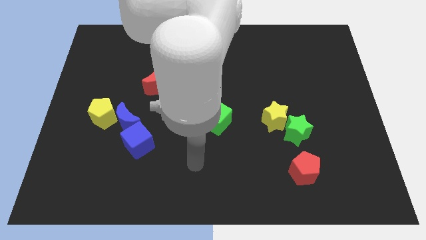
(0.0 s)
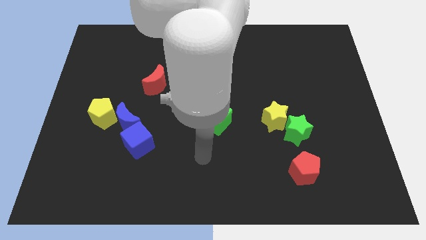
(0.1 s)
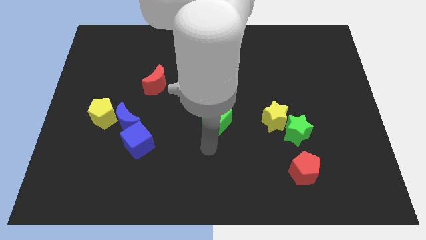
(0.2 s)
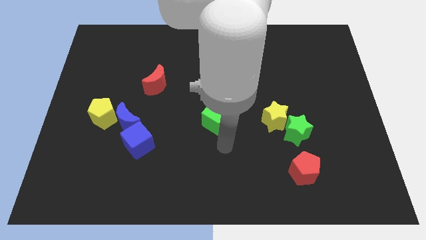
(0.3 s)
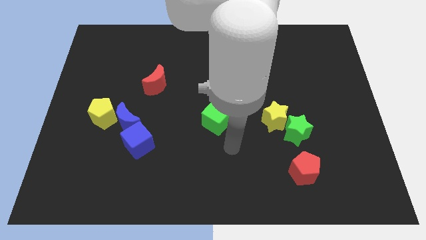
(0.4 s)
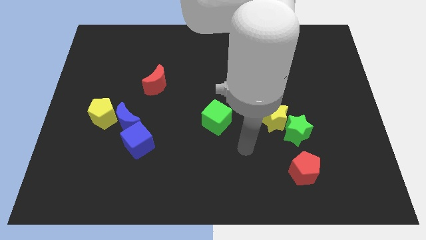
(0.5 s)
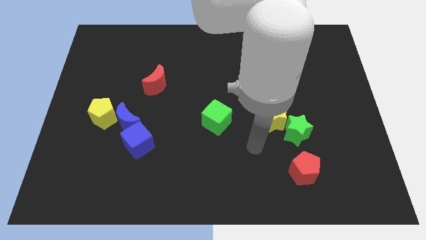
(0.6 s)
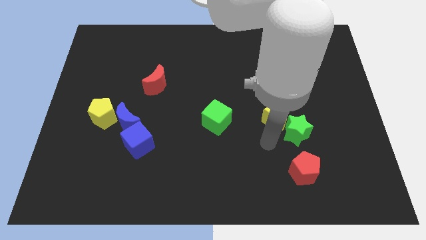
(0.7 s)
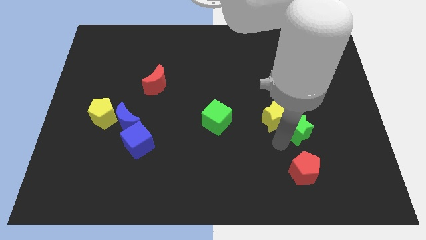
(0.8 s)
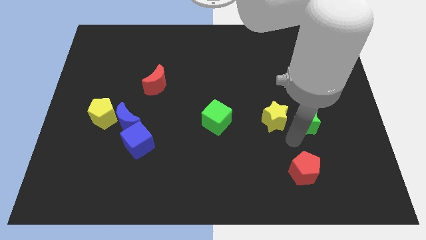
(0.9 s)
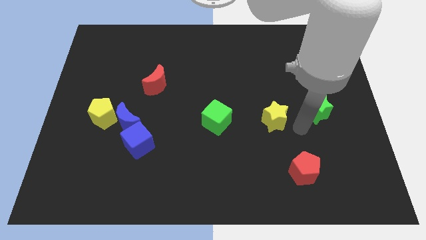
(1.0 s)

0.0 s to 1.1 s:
move the yellow star away from the green star

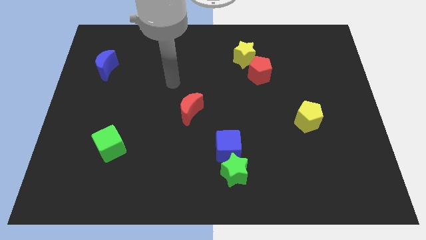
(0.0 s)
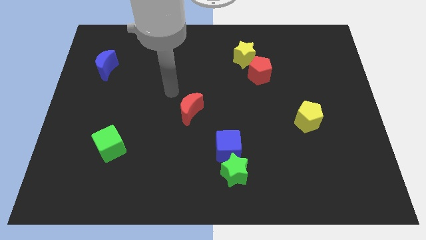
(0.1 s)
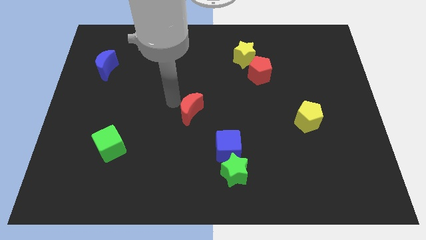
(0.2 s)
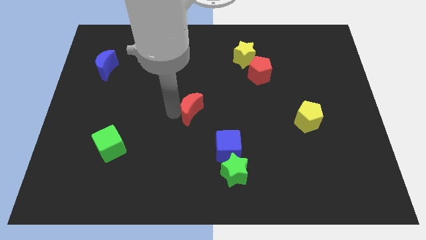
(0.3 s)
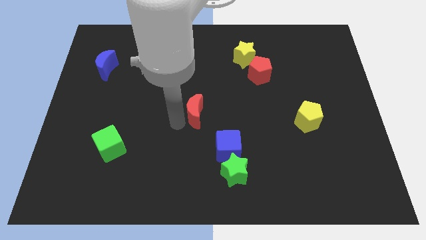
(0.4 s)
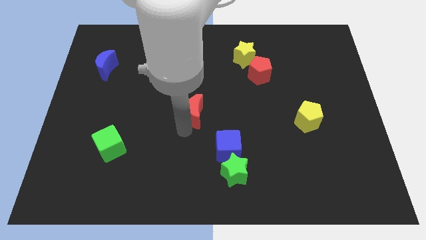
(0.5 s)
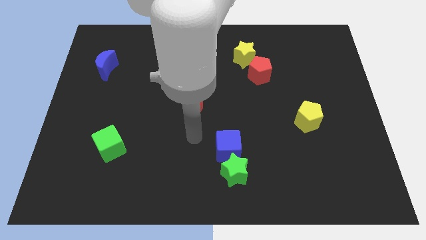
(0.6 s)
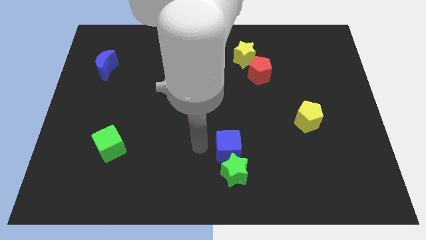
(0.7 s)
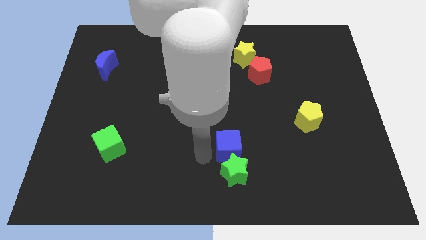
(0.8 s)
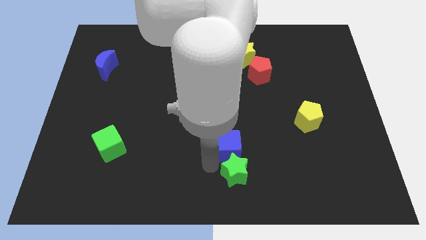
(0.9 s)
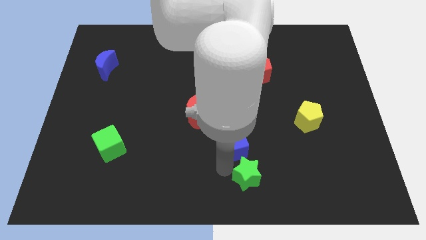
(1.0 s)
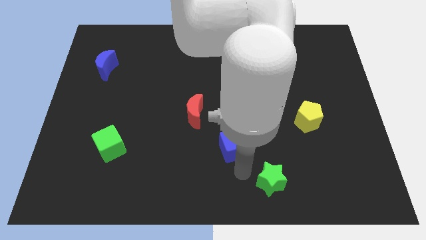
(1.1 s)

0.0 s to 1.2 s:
move the blue cube away from the green star

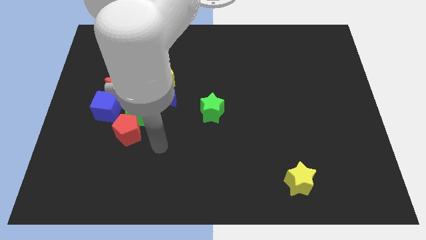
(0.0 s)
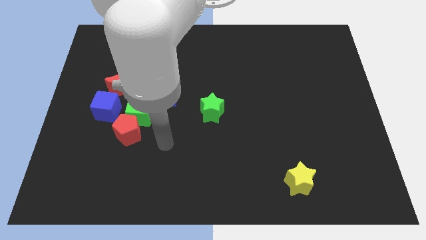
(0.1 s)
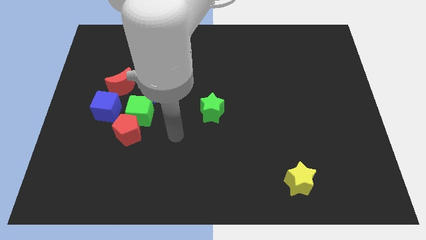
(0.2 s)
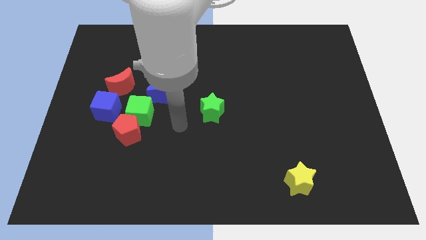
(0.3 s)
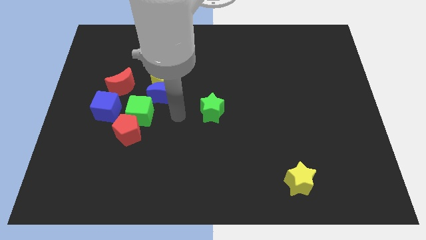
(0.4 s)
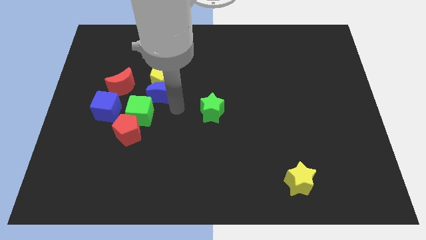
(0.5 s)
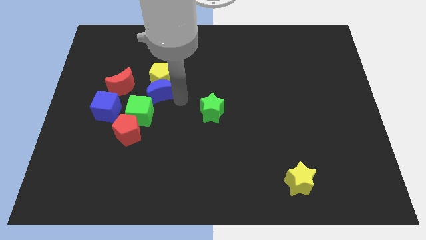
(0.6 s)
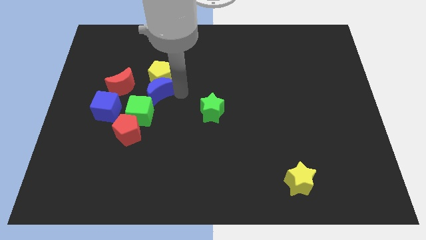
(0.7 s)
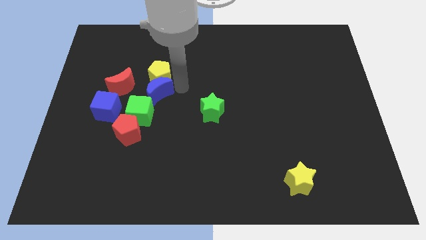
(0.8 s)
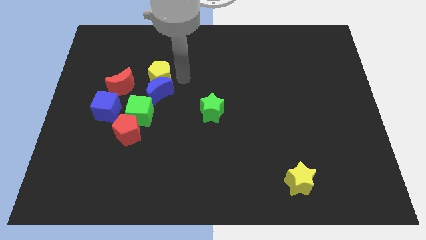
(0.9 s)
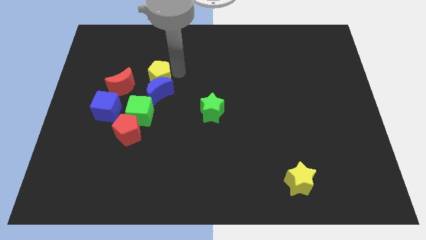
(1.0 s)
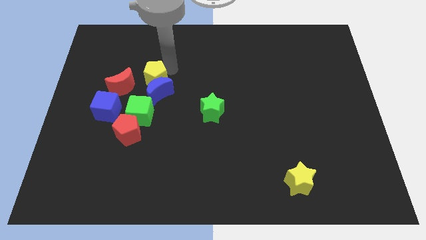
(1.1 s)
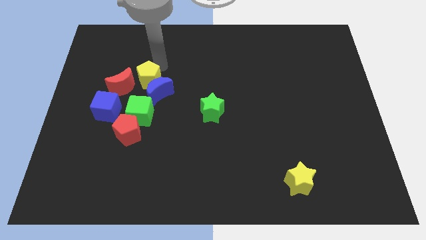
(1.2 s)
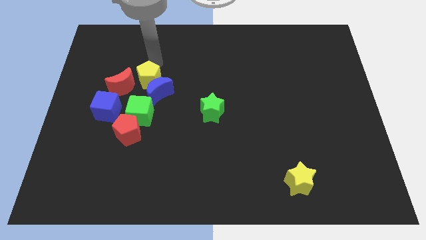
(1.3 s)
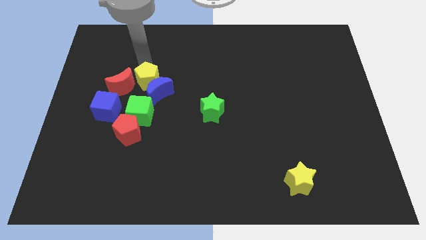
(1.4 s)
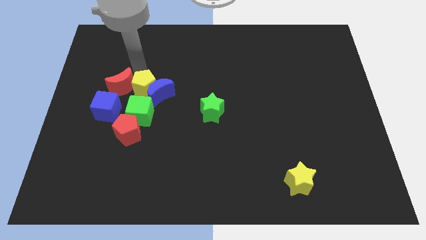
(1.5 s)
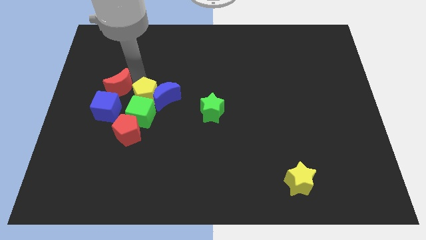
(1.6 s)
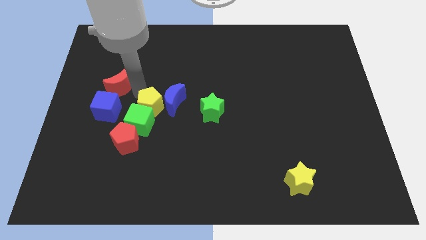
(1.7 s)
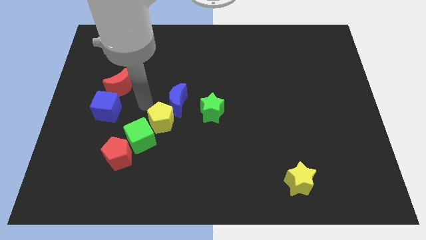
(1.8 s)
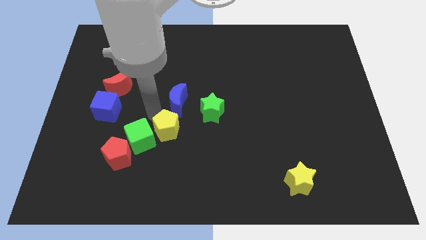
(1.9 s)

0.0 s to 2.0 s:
move the blue moon away from the yellow pentagon and green cube

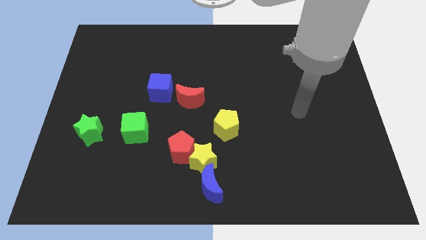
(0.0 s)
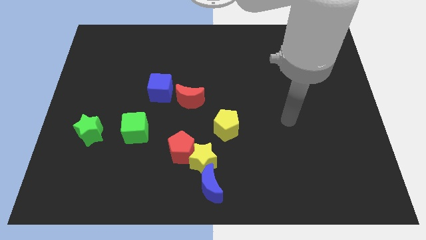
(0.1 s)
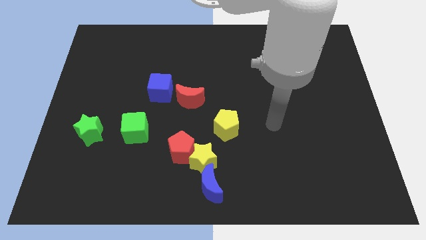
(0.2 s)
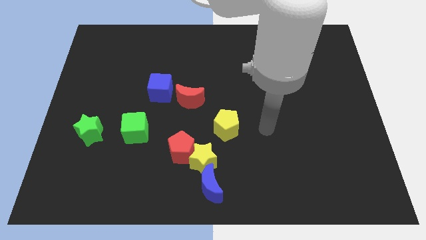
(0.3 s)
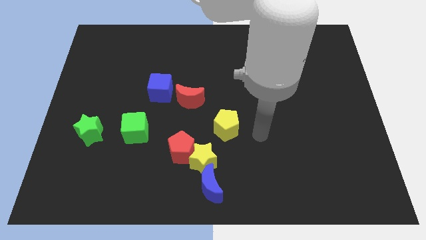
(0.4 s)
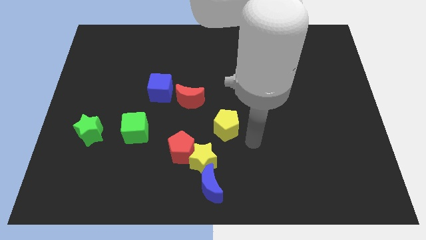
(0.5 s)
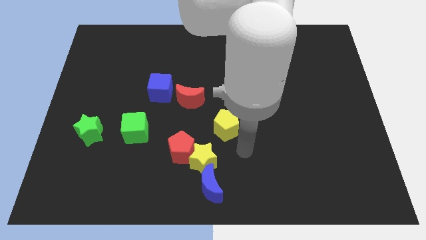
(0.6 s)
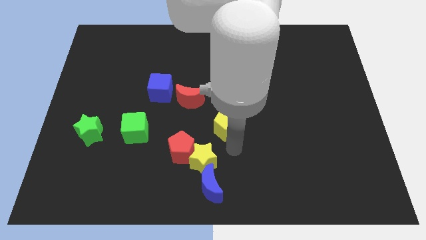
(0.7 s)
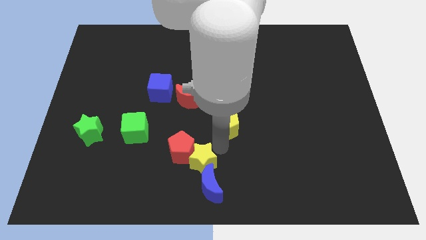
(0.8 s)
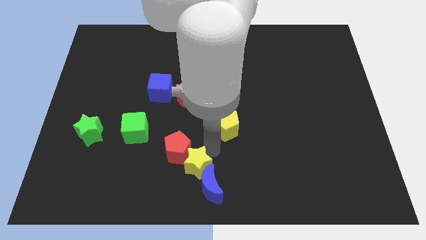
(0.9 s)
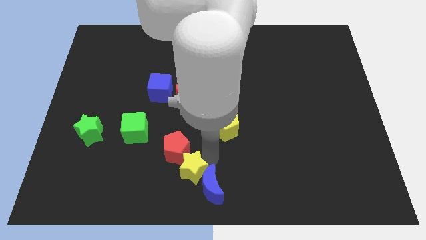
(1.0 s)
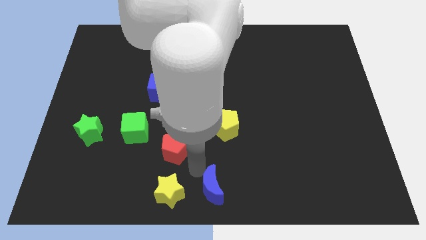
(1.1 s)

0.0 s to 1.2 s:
move the red pentagon away from the yellow star

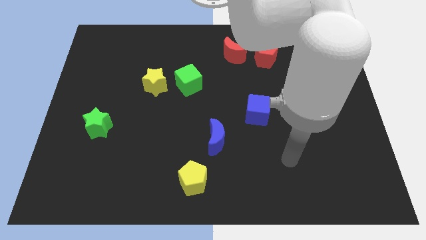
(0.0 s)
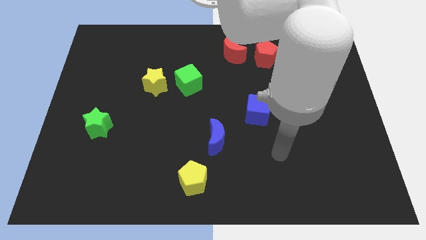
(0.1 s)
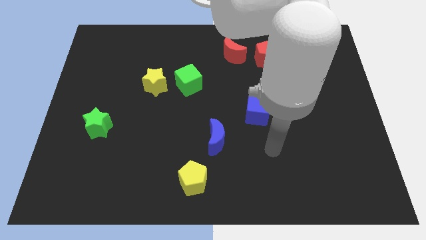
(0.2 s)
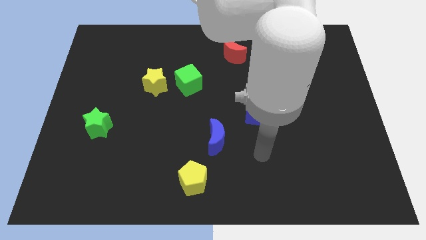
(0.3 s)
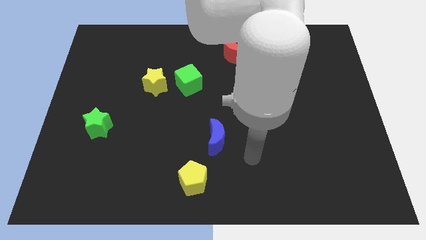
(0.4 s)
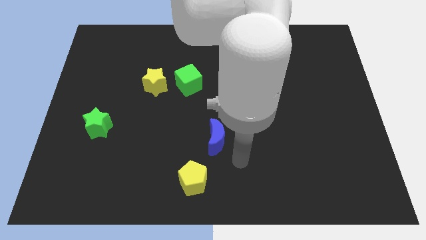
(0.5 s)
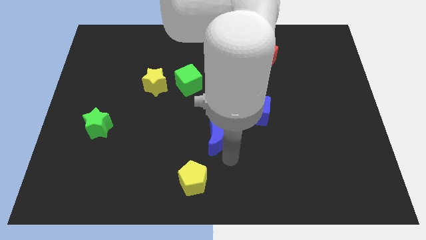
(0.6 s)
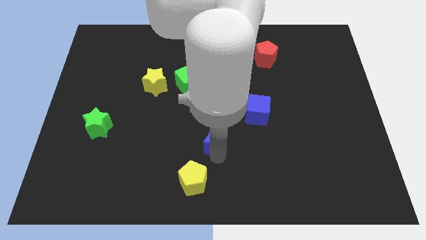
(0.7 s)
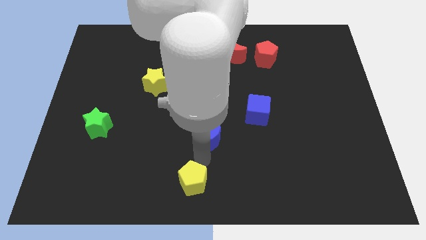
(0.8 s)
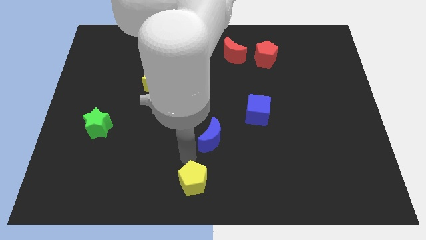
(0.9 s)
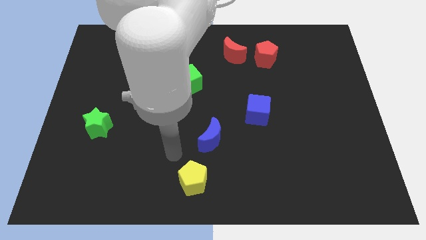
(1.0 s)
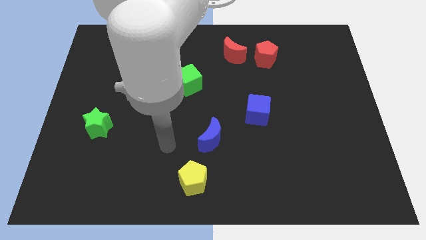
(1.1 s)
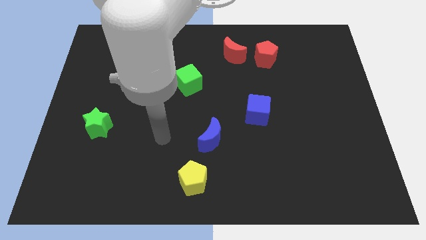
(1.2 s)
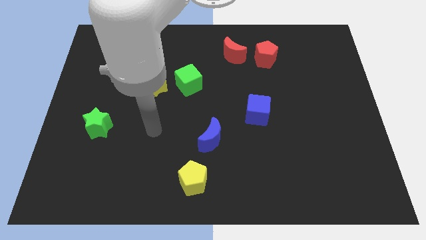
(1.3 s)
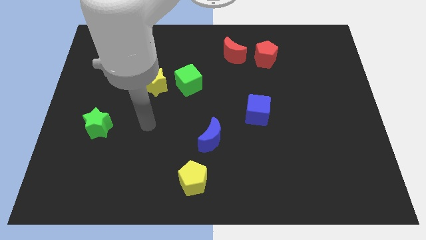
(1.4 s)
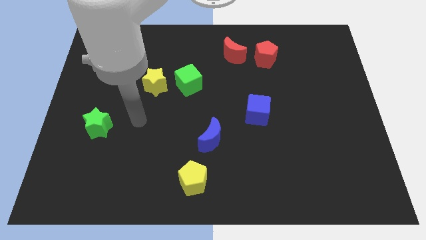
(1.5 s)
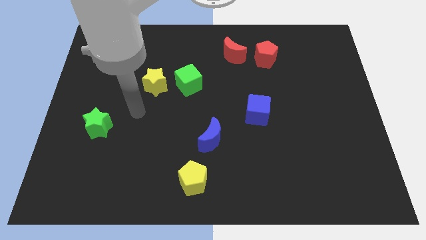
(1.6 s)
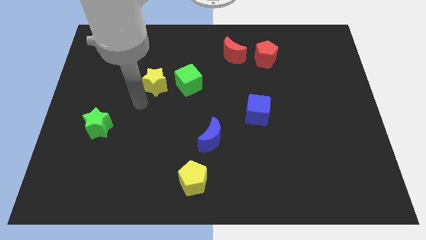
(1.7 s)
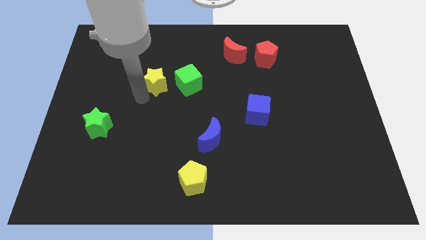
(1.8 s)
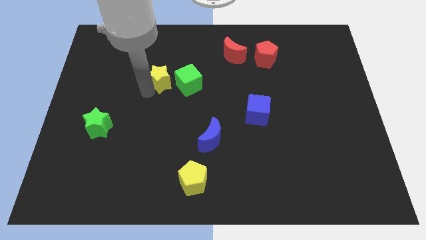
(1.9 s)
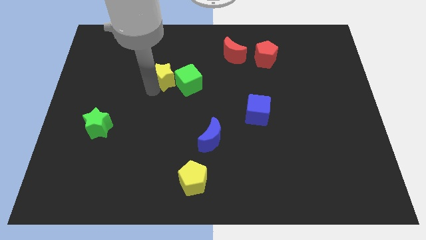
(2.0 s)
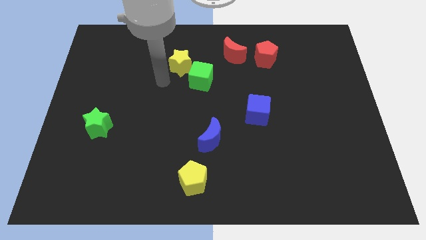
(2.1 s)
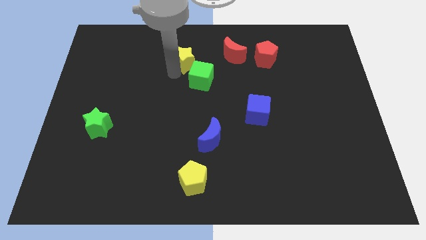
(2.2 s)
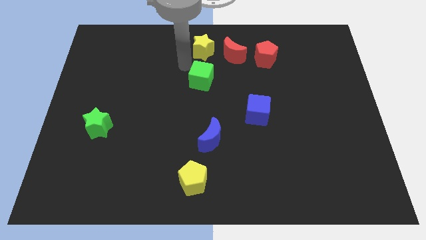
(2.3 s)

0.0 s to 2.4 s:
pull the green cube apart from the yellow star

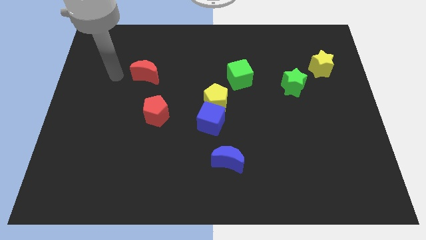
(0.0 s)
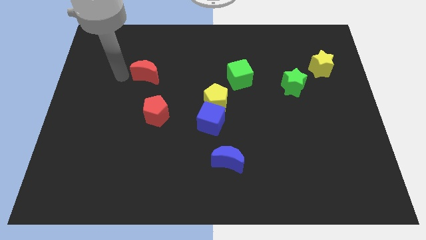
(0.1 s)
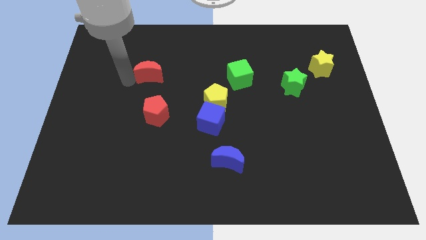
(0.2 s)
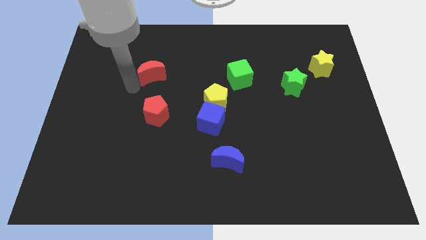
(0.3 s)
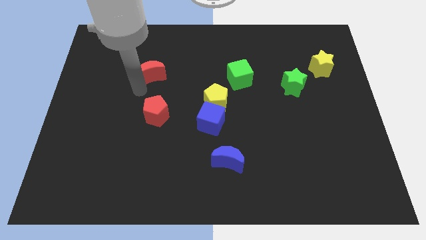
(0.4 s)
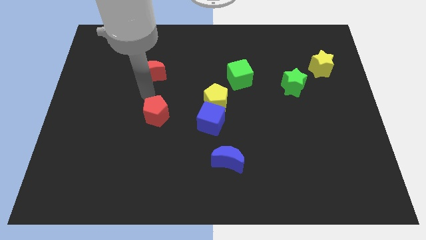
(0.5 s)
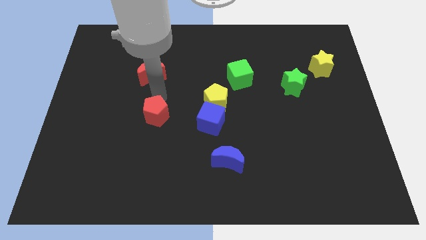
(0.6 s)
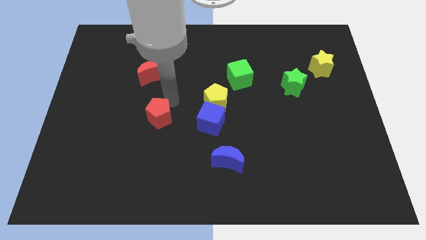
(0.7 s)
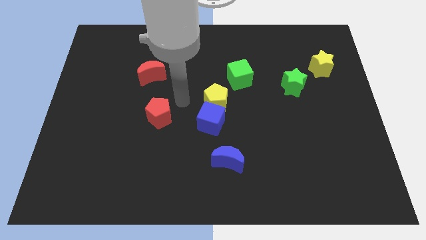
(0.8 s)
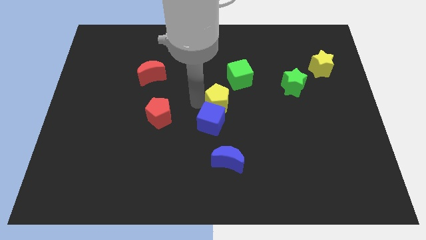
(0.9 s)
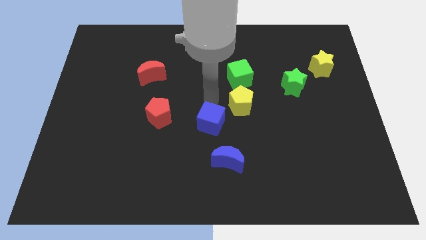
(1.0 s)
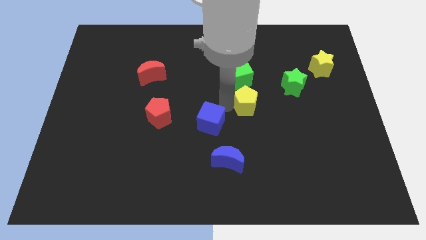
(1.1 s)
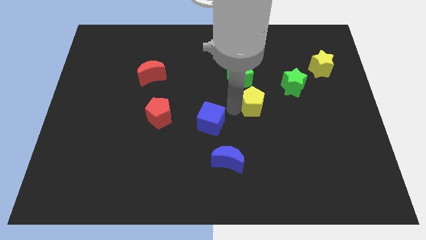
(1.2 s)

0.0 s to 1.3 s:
pull the blue cube apart from the yellow pentagon

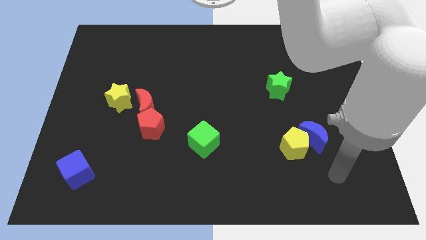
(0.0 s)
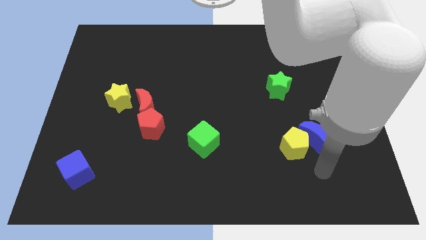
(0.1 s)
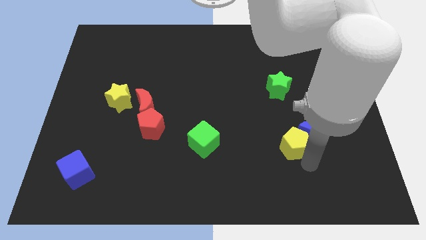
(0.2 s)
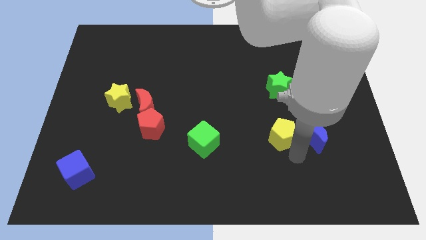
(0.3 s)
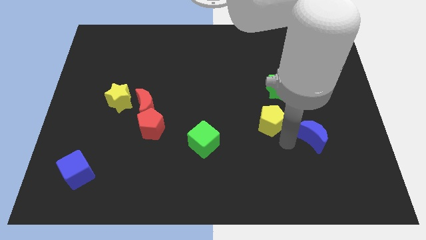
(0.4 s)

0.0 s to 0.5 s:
move the blue moon away from the yellow pentagon
